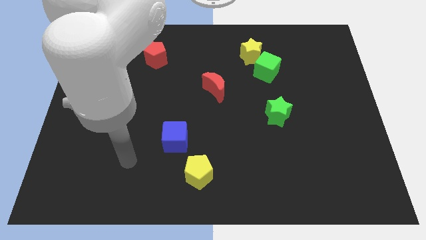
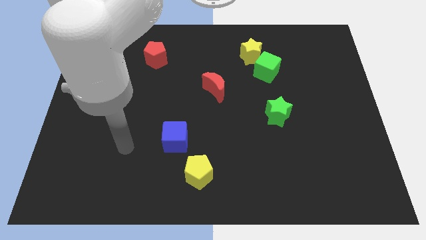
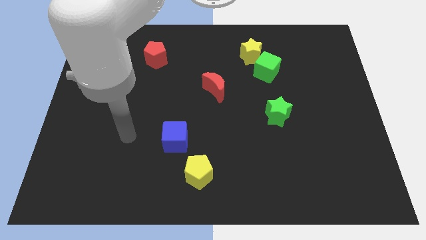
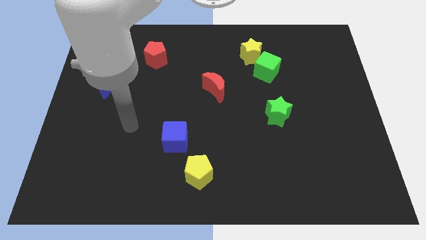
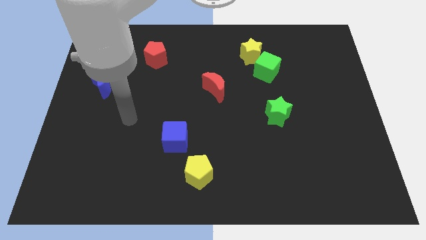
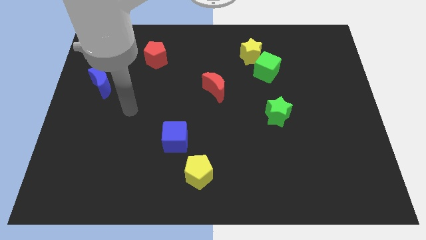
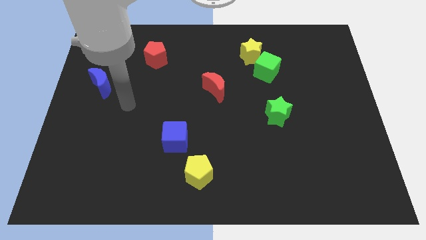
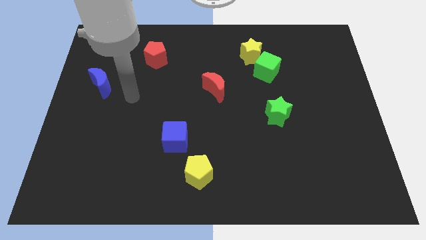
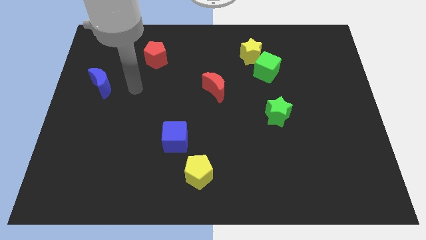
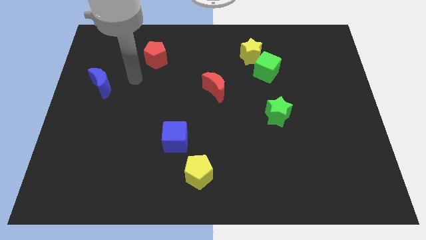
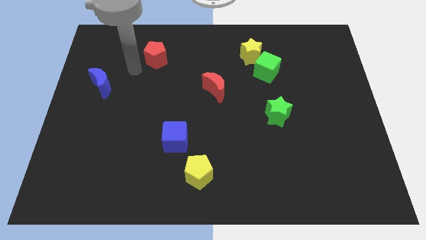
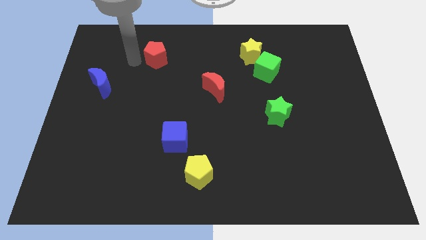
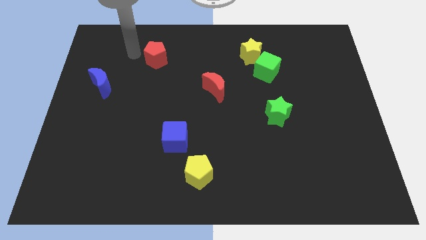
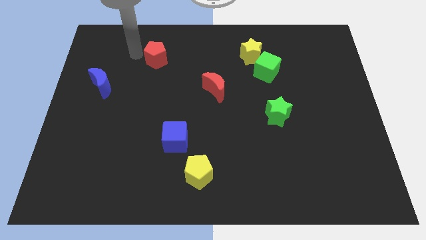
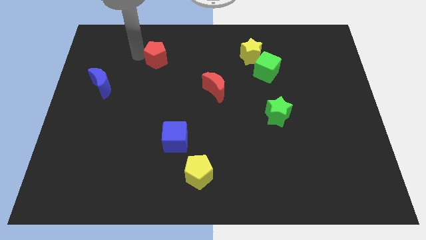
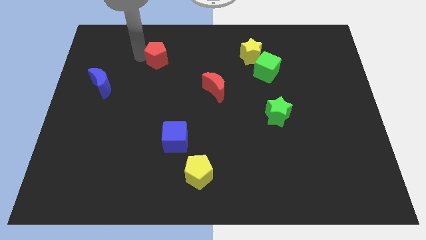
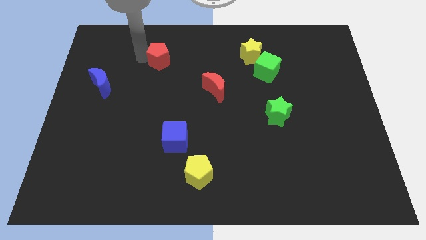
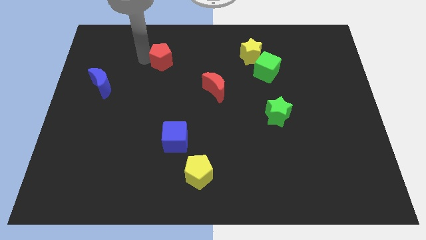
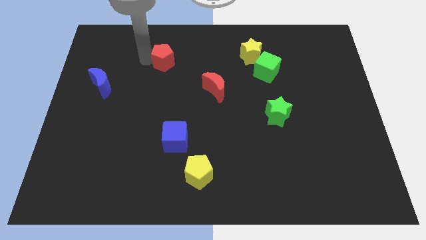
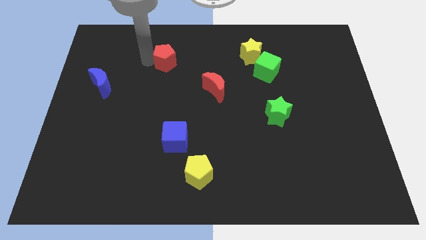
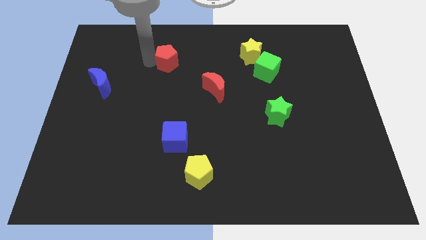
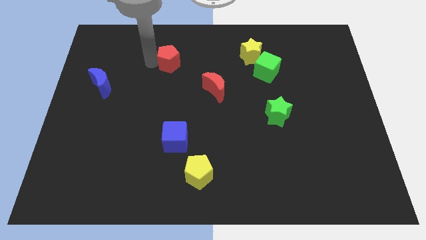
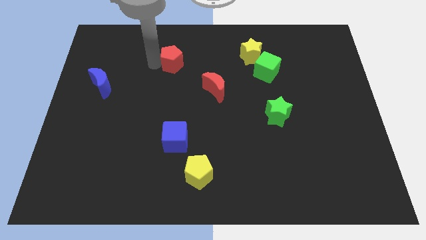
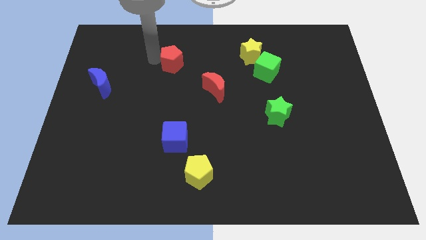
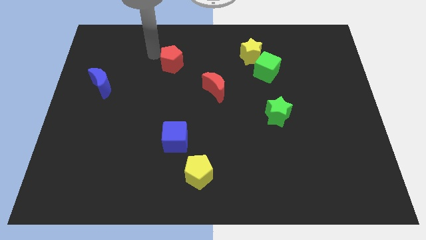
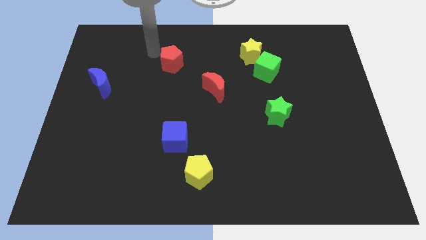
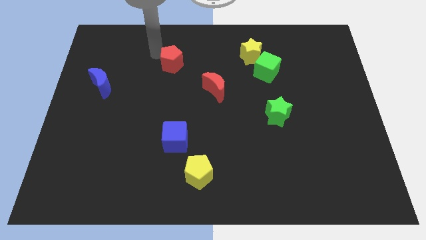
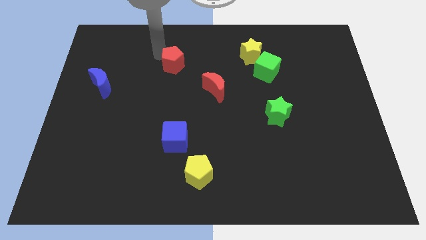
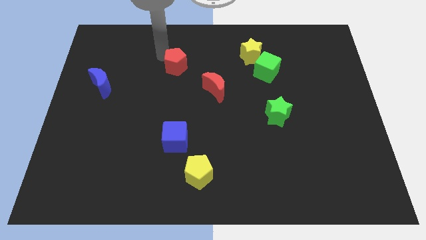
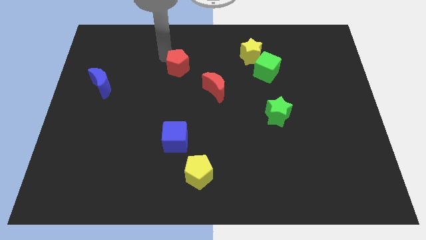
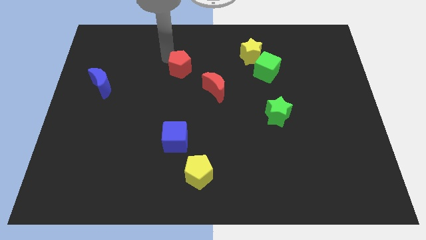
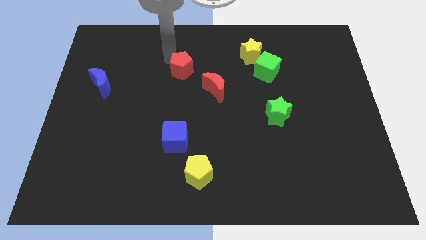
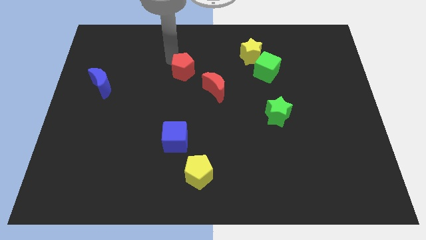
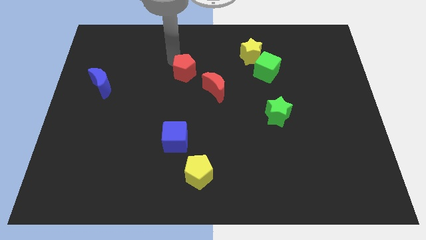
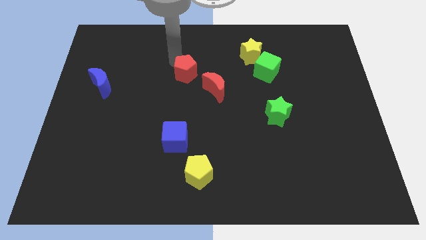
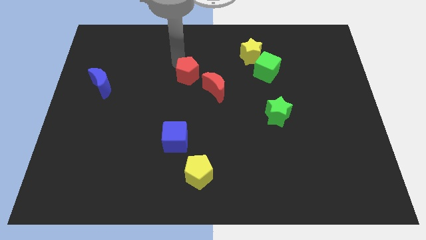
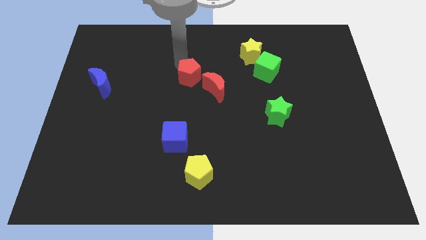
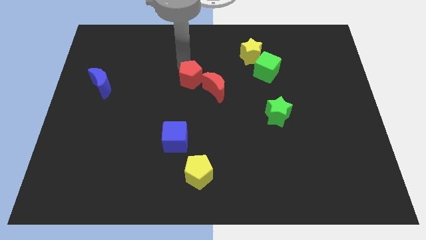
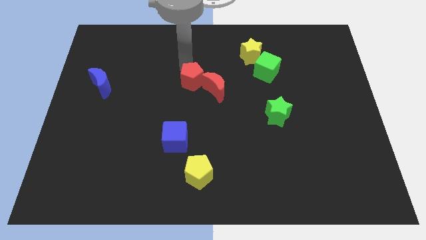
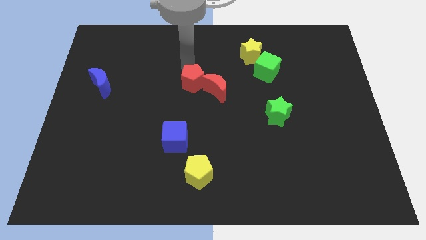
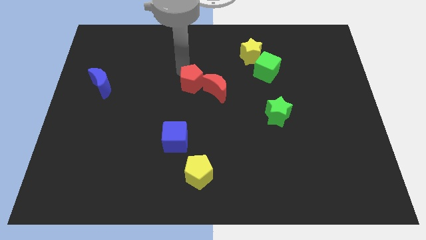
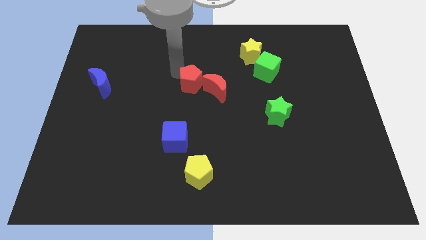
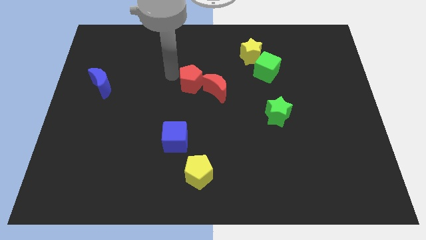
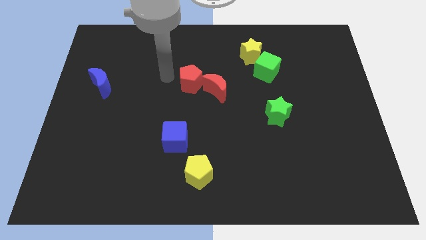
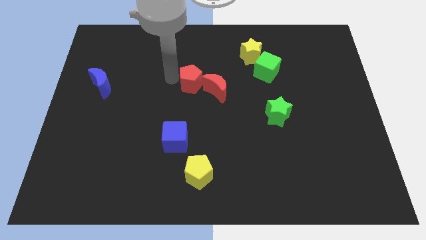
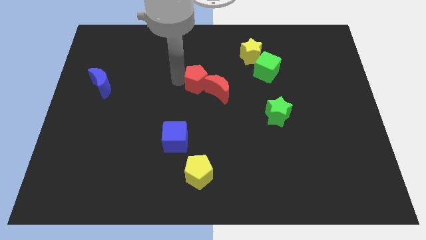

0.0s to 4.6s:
put the red pentagon towards the red moon

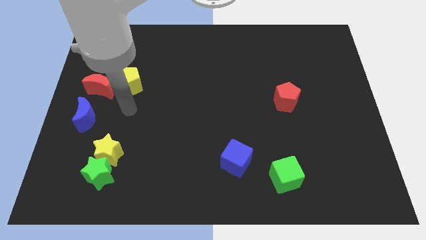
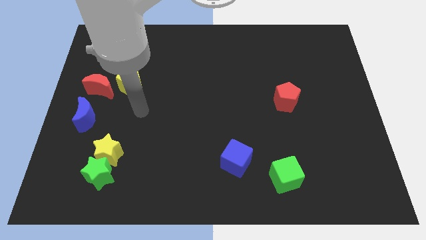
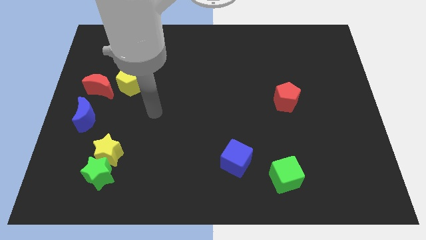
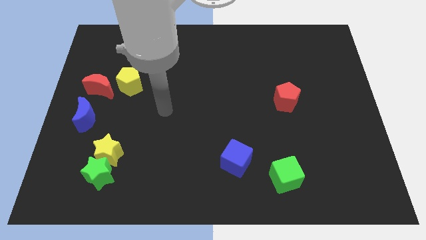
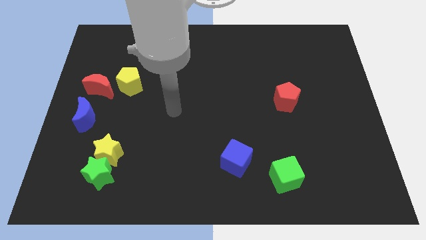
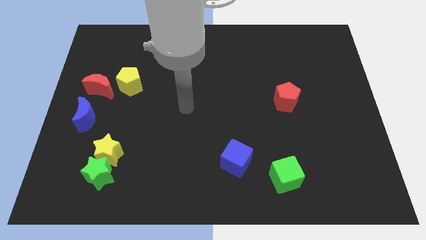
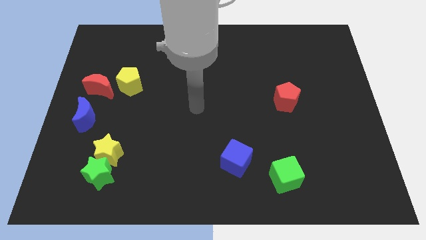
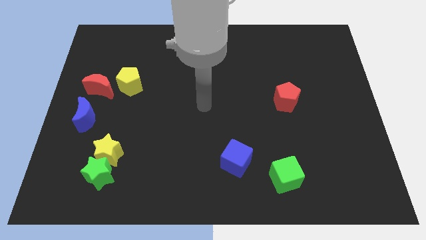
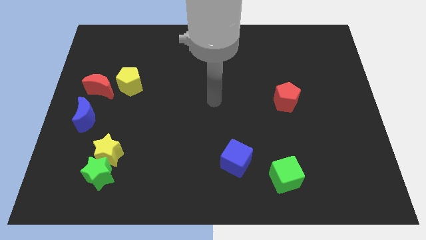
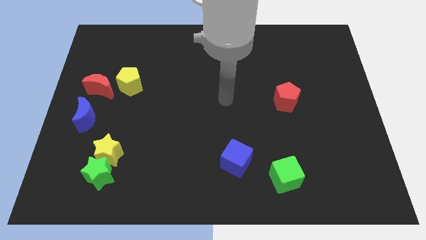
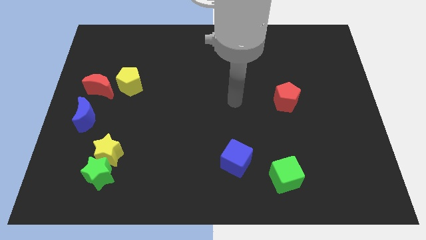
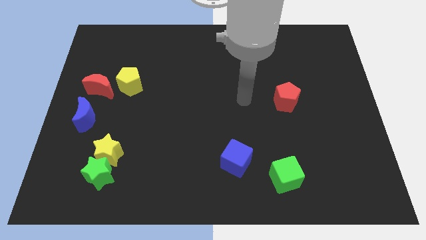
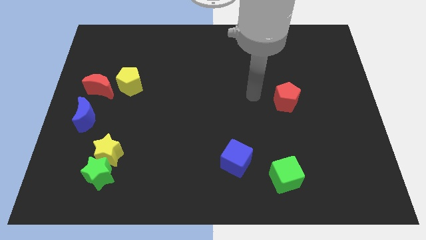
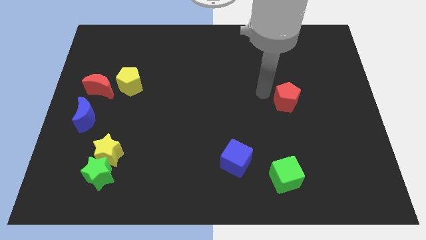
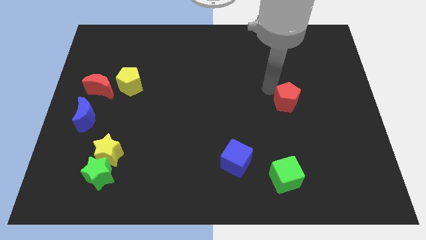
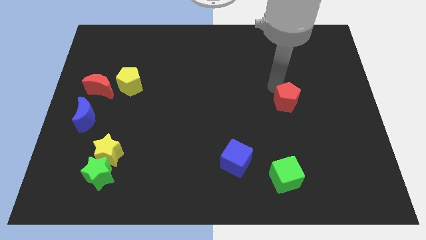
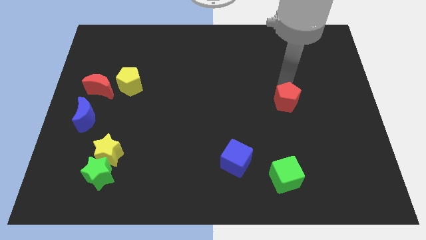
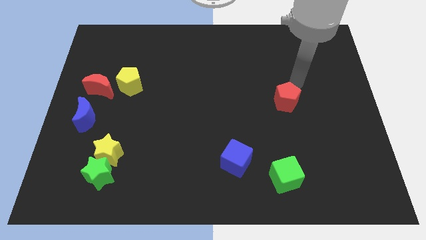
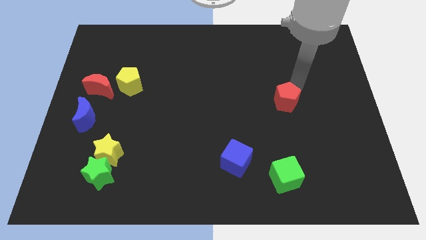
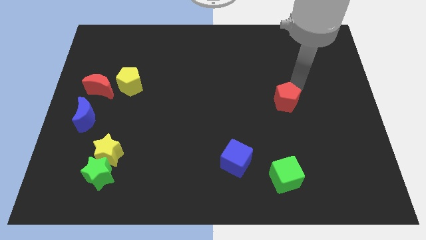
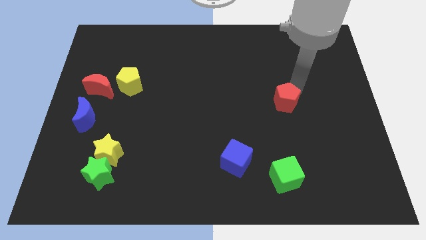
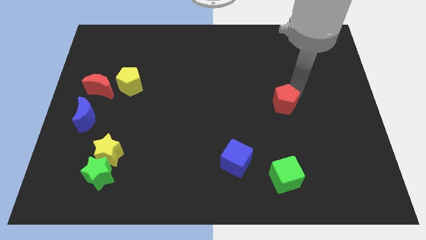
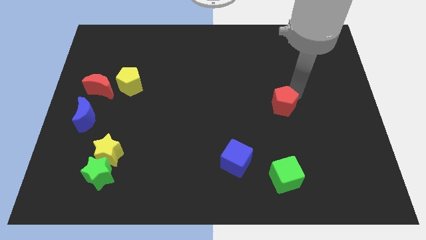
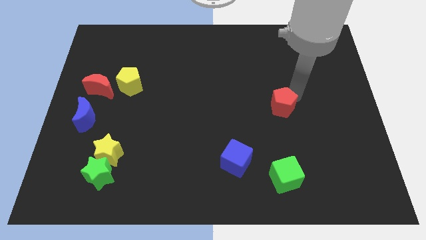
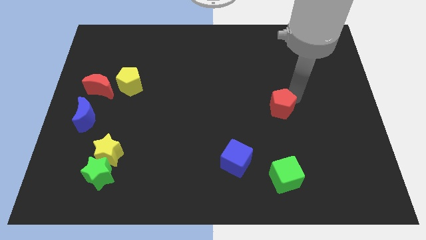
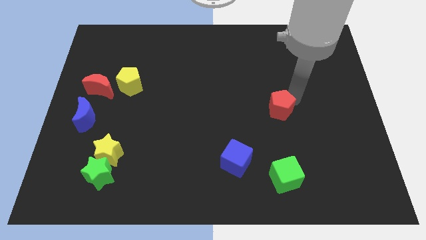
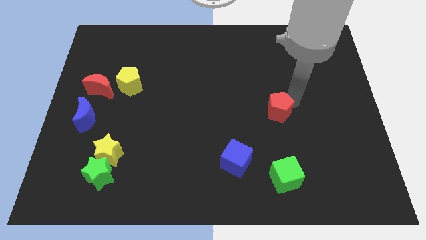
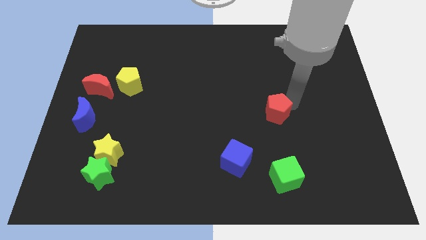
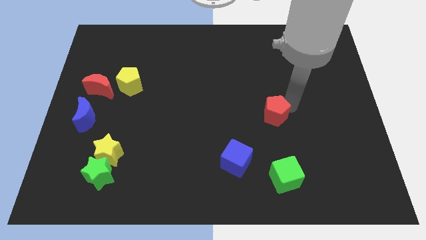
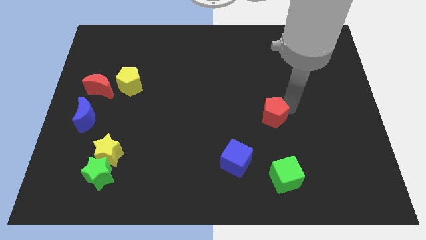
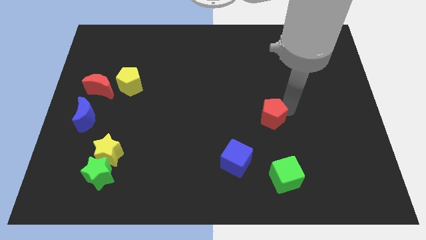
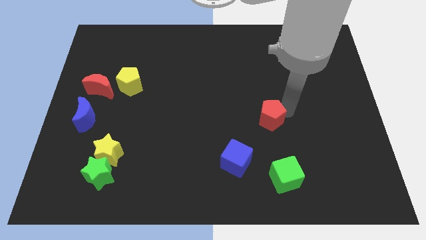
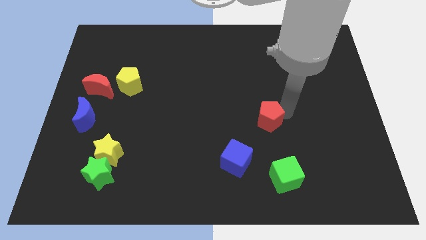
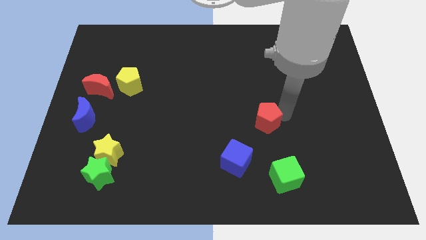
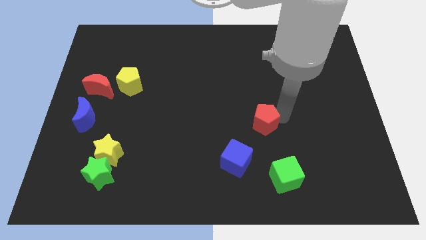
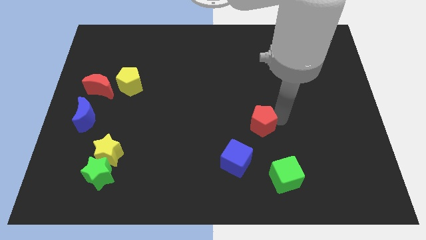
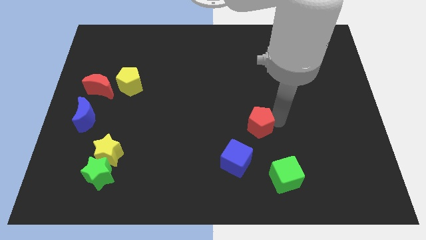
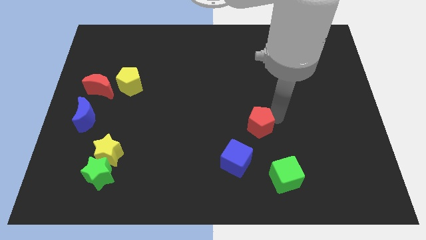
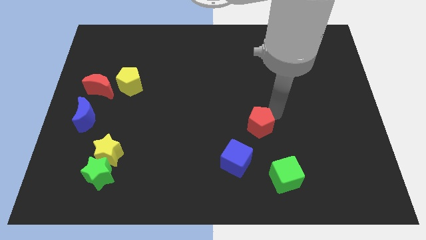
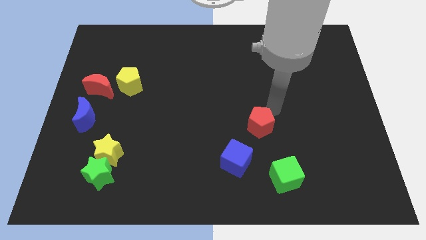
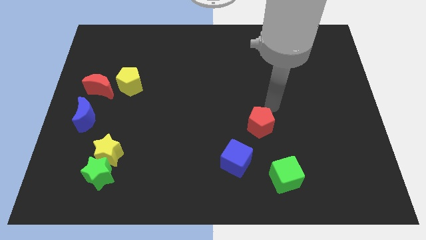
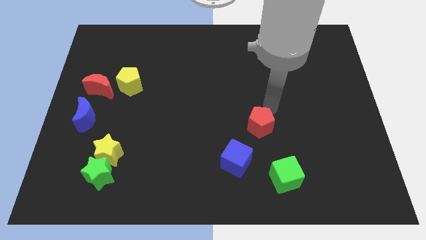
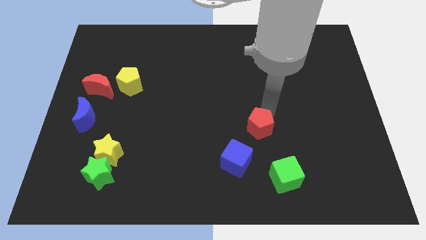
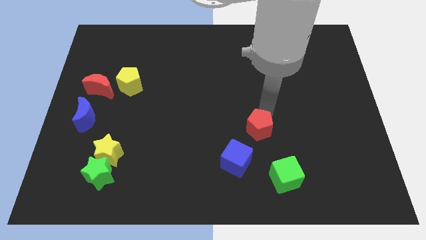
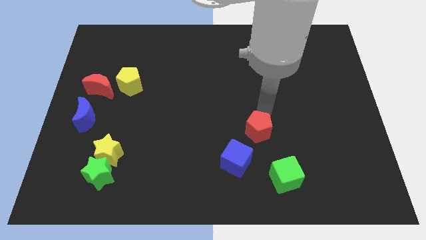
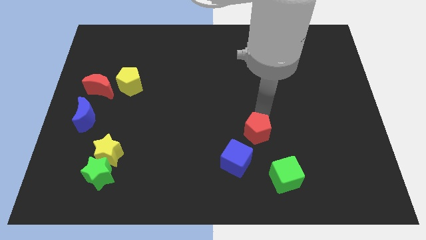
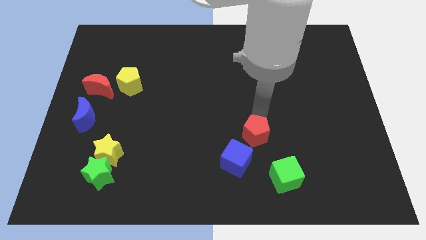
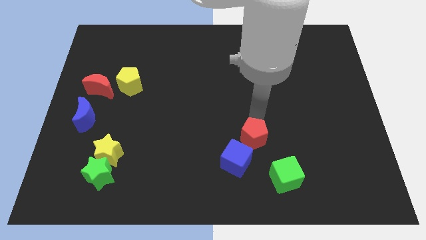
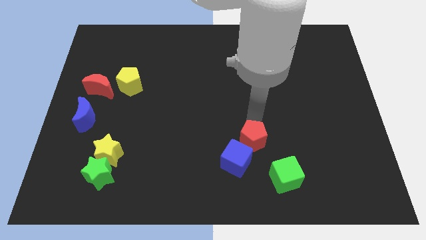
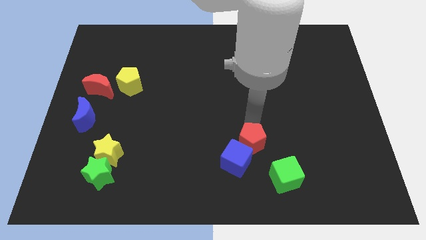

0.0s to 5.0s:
put the red pentagon next to the blue cube
